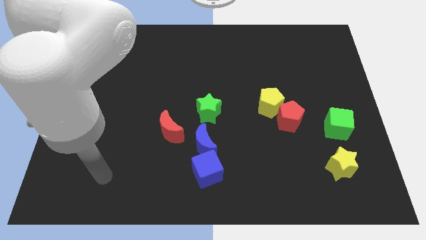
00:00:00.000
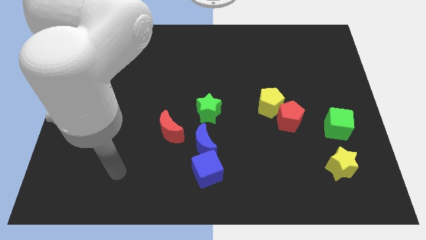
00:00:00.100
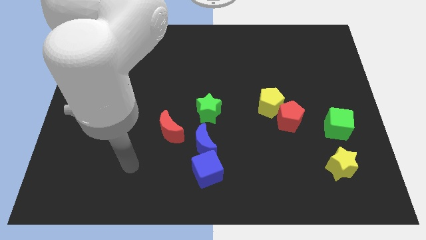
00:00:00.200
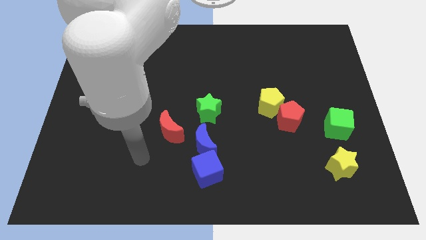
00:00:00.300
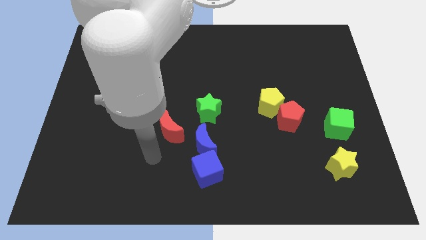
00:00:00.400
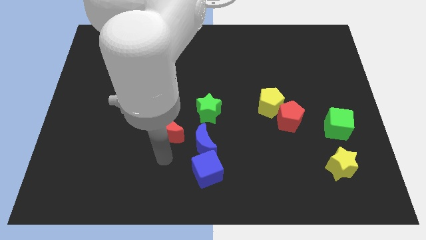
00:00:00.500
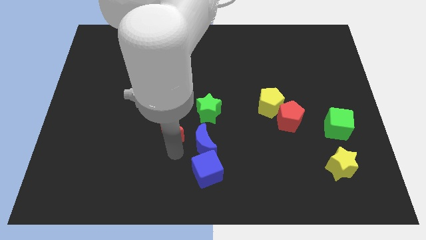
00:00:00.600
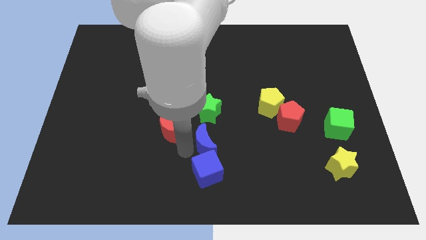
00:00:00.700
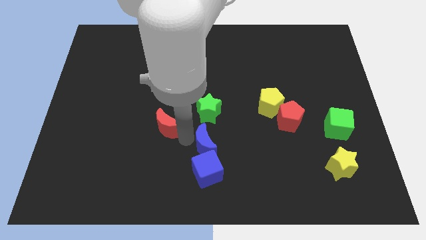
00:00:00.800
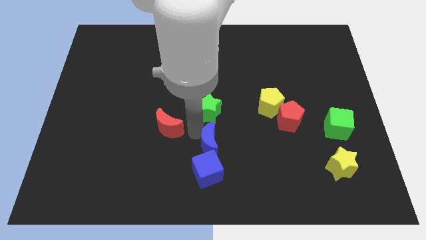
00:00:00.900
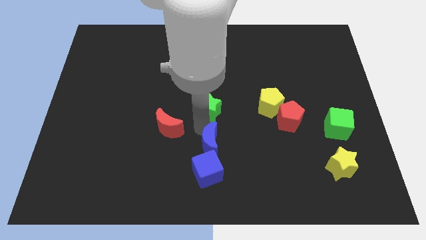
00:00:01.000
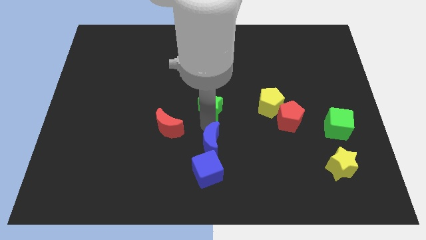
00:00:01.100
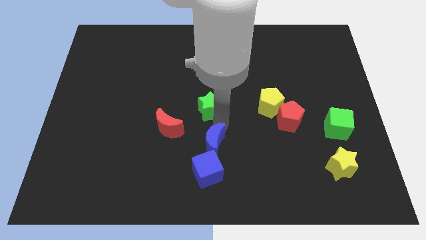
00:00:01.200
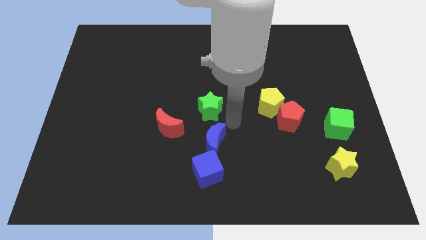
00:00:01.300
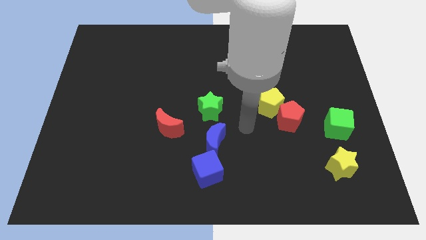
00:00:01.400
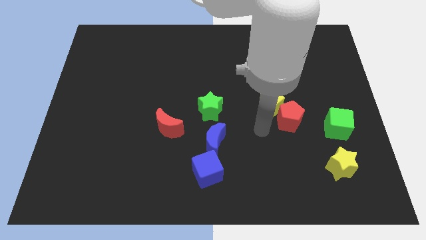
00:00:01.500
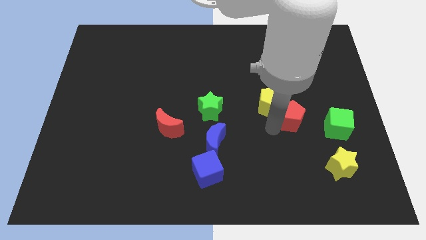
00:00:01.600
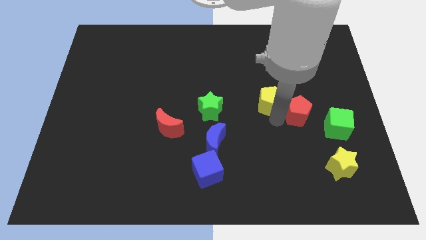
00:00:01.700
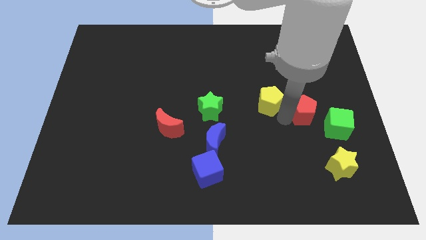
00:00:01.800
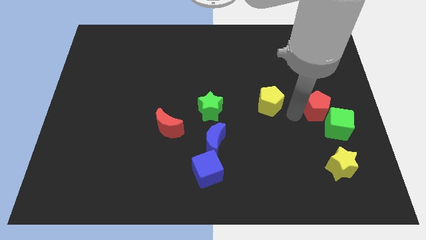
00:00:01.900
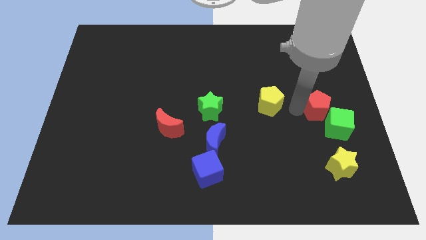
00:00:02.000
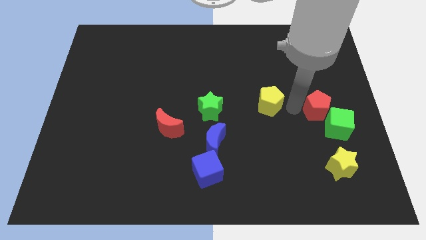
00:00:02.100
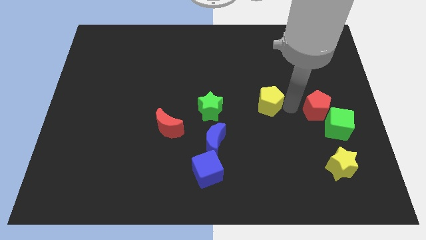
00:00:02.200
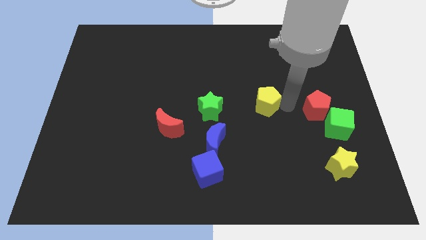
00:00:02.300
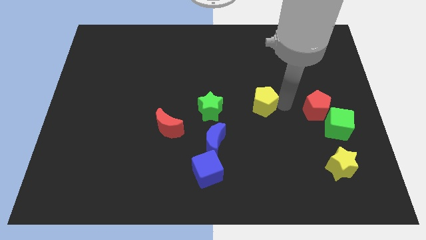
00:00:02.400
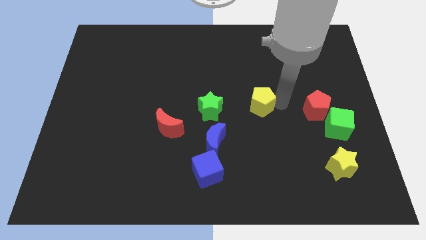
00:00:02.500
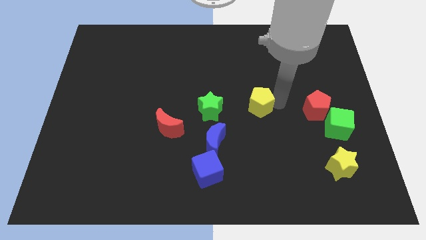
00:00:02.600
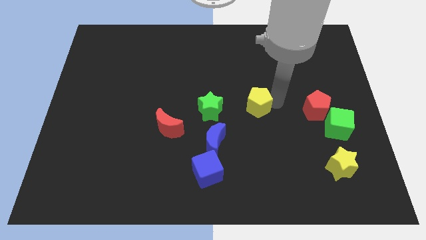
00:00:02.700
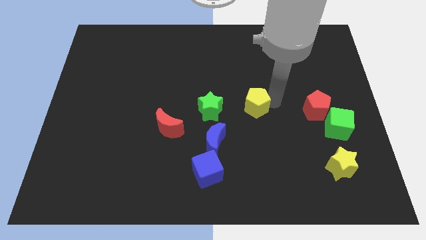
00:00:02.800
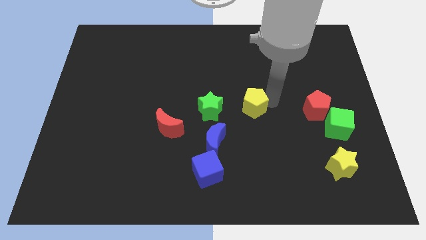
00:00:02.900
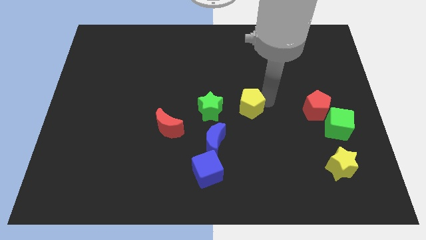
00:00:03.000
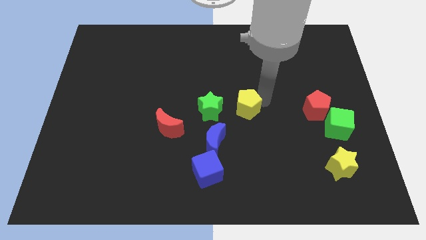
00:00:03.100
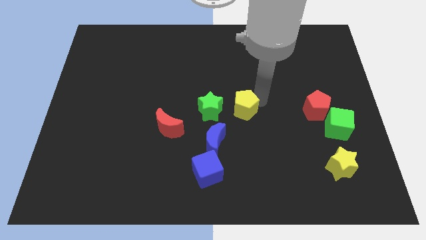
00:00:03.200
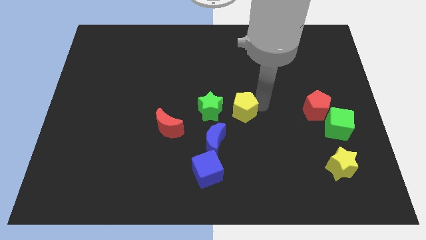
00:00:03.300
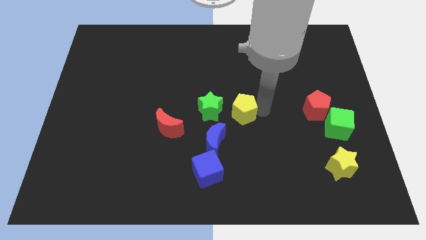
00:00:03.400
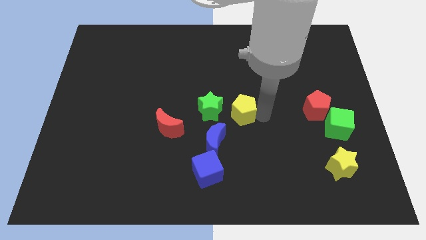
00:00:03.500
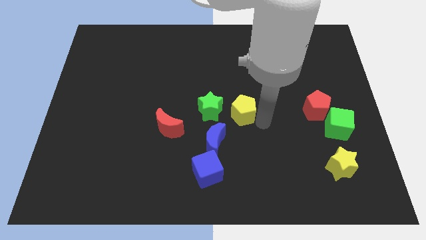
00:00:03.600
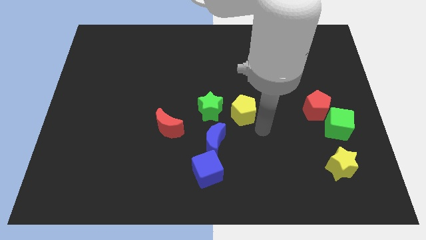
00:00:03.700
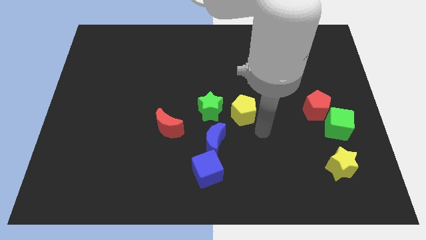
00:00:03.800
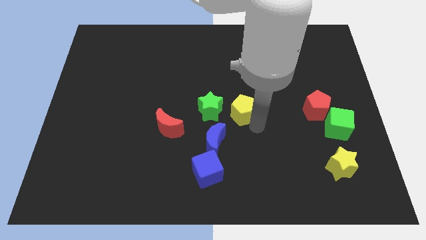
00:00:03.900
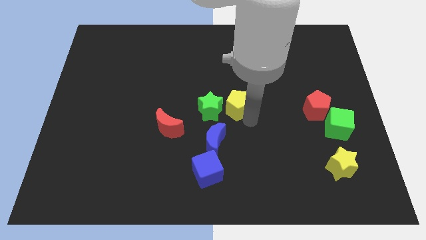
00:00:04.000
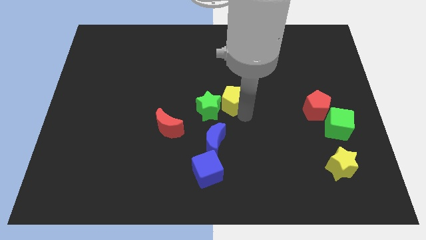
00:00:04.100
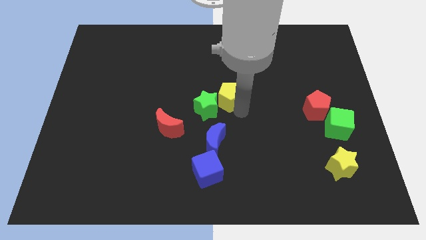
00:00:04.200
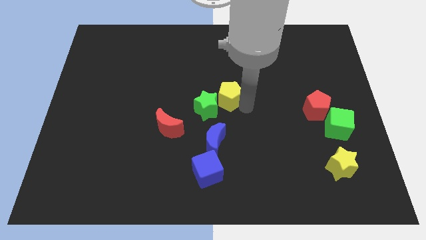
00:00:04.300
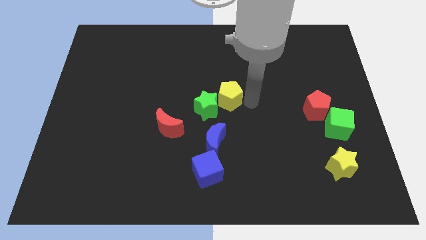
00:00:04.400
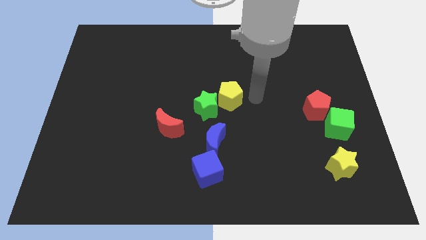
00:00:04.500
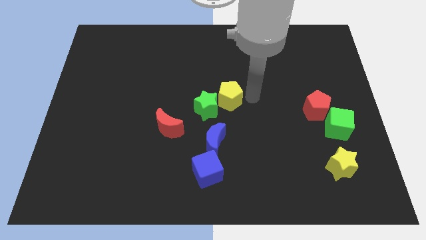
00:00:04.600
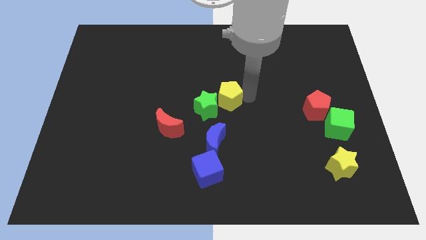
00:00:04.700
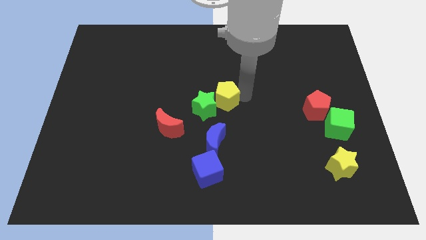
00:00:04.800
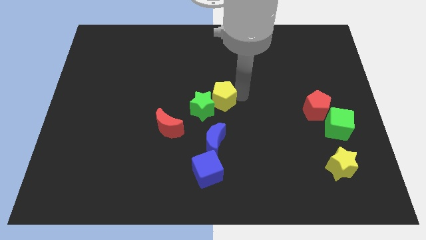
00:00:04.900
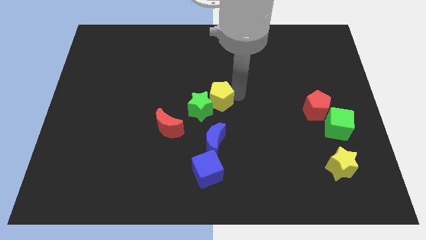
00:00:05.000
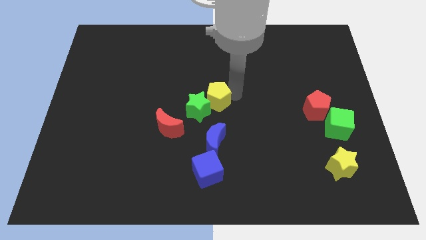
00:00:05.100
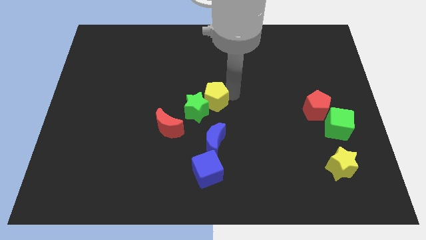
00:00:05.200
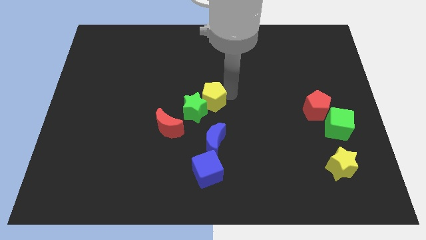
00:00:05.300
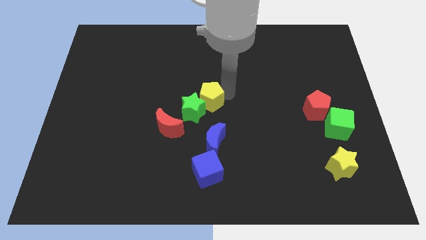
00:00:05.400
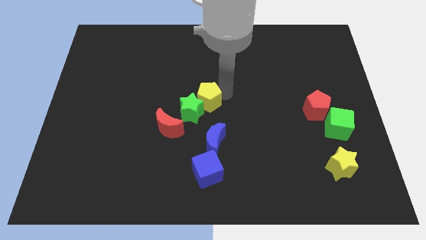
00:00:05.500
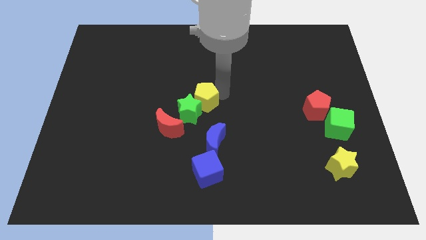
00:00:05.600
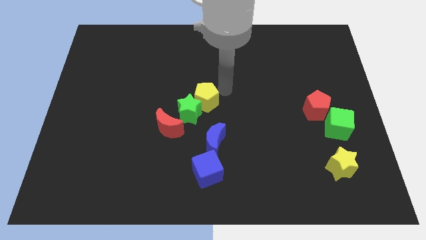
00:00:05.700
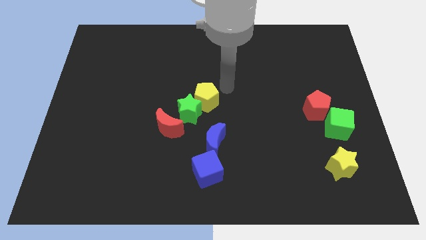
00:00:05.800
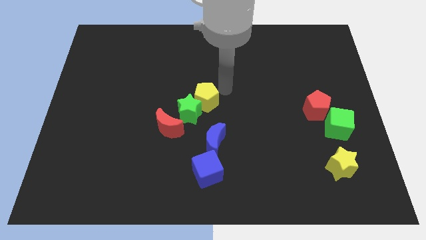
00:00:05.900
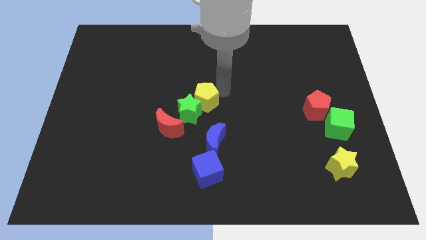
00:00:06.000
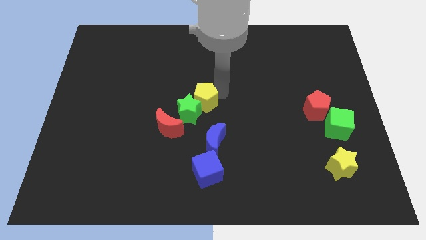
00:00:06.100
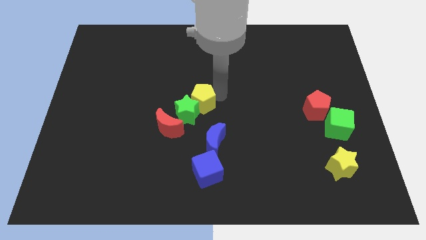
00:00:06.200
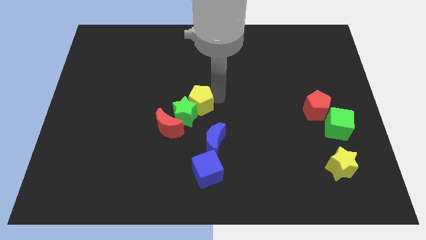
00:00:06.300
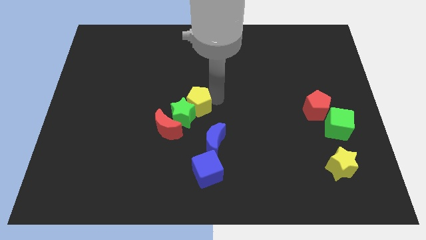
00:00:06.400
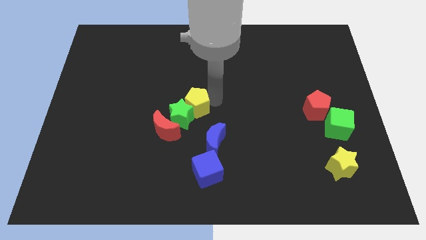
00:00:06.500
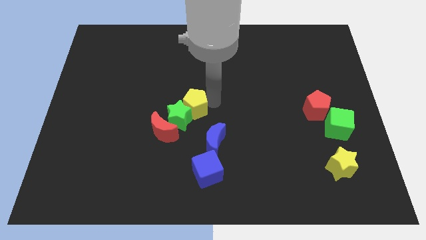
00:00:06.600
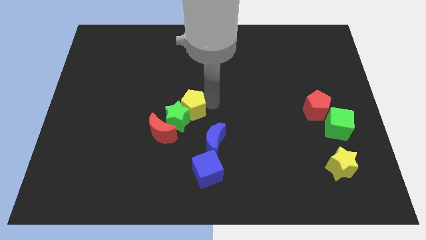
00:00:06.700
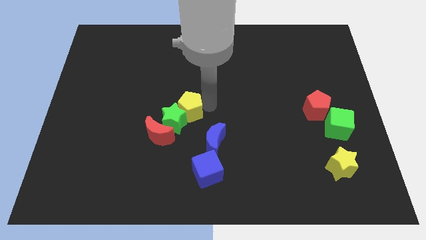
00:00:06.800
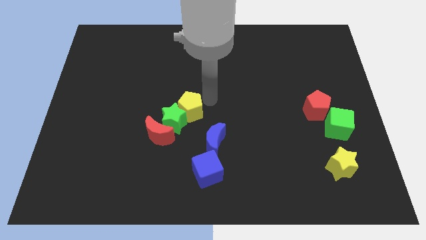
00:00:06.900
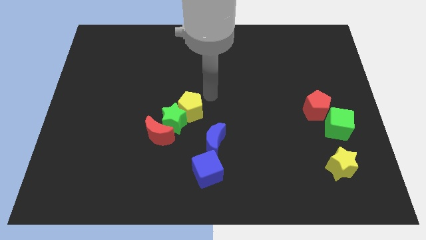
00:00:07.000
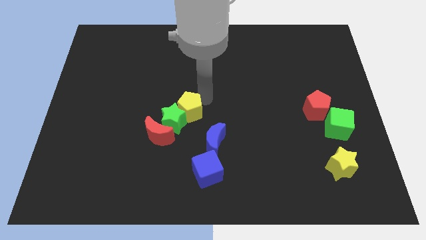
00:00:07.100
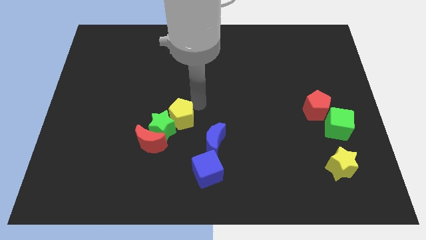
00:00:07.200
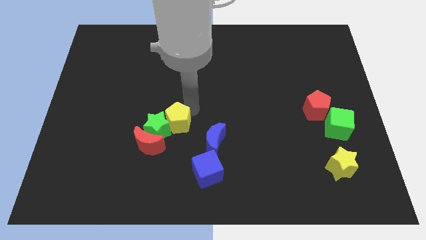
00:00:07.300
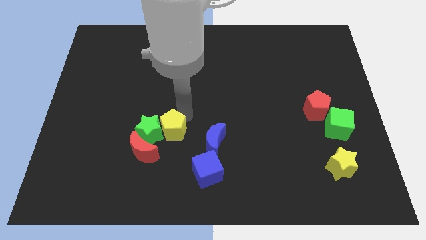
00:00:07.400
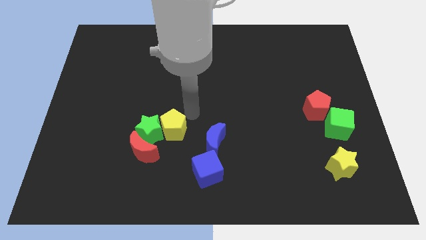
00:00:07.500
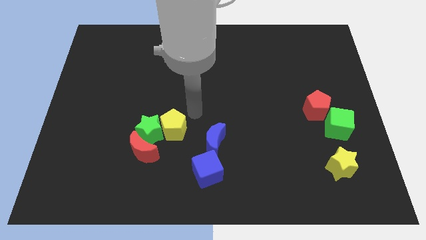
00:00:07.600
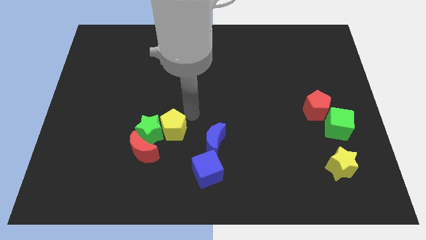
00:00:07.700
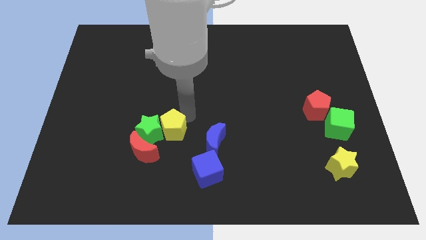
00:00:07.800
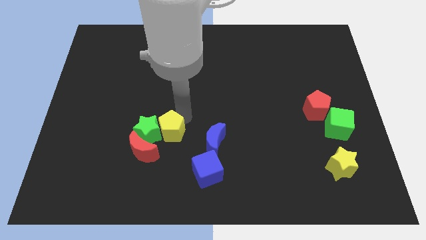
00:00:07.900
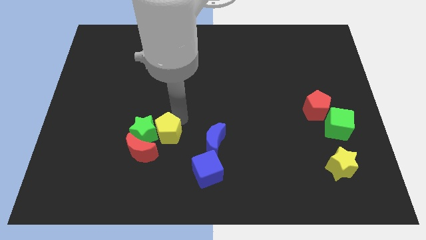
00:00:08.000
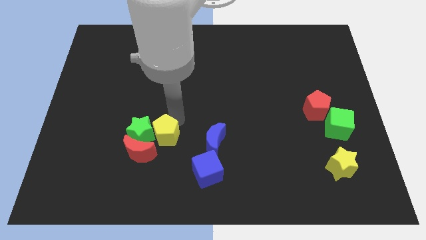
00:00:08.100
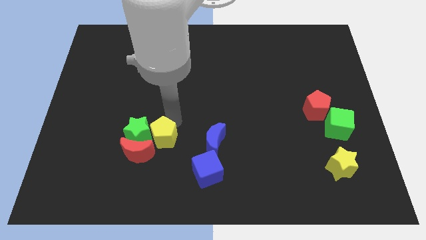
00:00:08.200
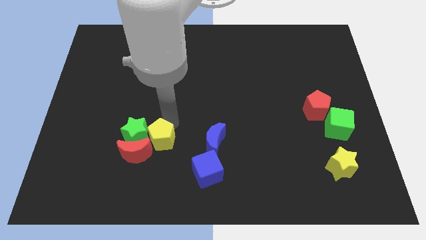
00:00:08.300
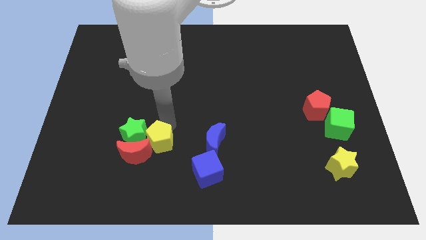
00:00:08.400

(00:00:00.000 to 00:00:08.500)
put the yellow pentagon towards the red moon
